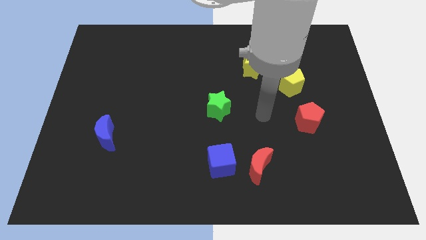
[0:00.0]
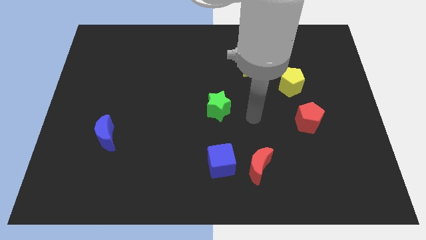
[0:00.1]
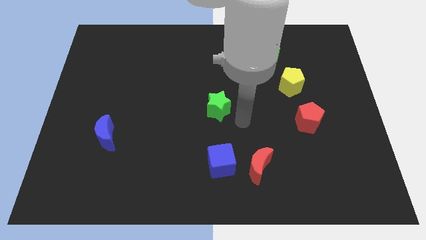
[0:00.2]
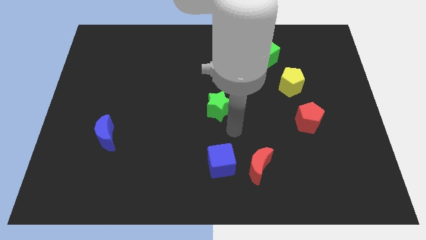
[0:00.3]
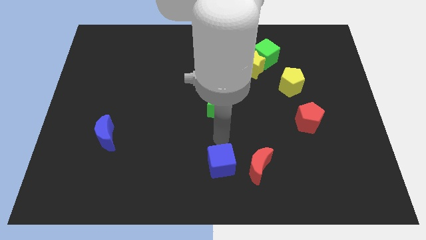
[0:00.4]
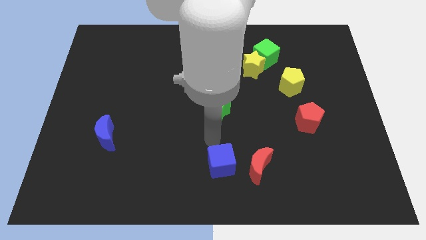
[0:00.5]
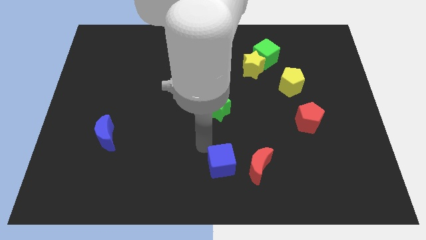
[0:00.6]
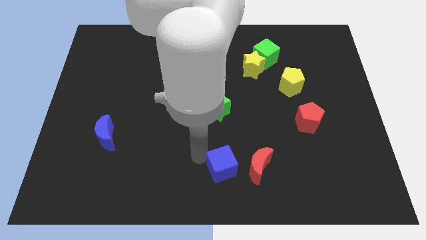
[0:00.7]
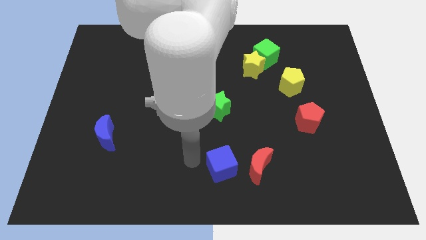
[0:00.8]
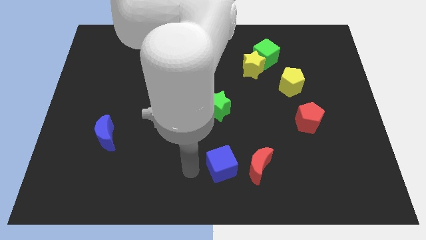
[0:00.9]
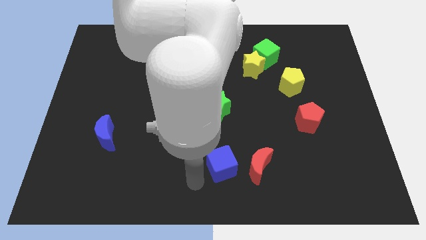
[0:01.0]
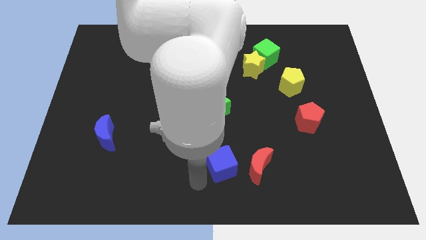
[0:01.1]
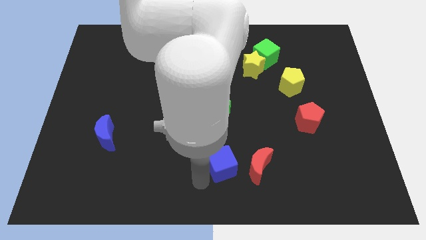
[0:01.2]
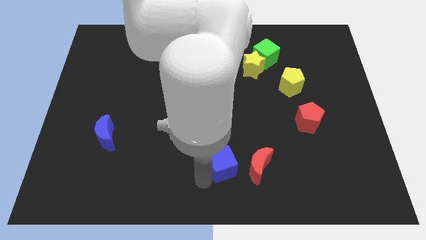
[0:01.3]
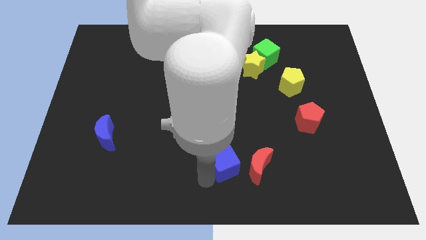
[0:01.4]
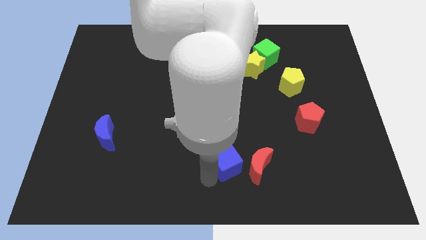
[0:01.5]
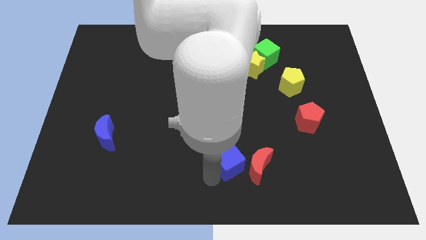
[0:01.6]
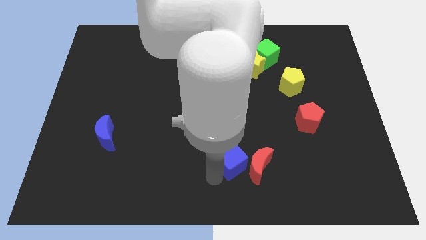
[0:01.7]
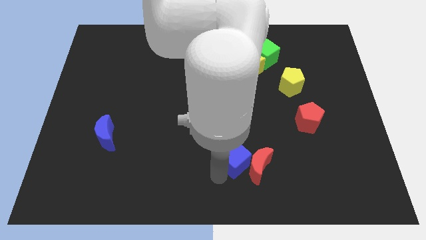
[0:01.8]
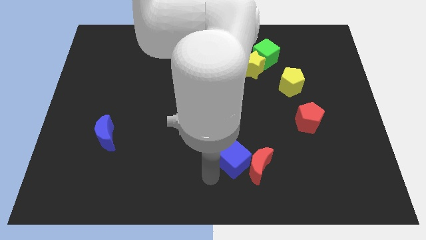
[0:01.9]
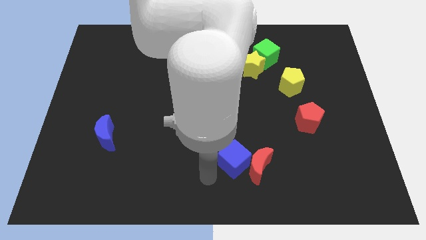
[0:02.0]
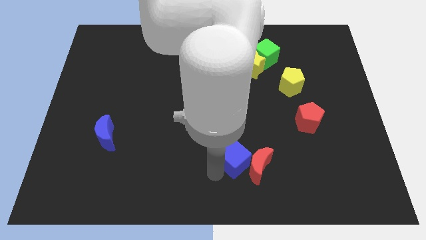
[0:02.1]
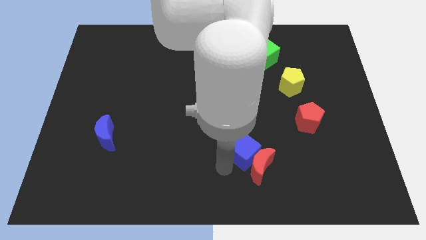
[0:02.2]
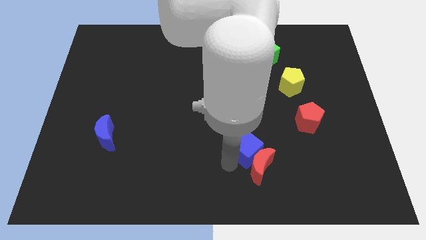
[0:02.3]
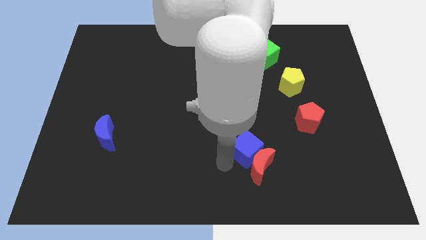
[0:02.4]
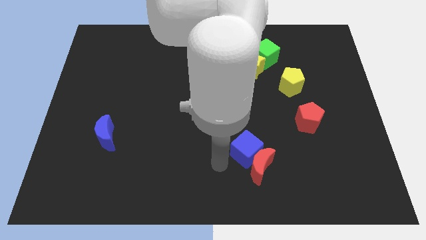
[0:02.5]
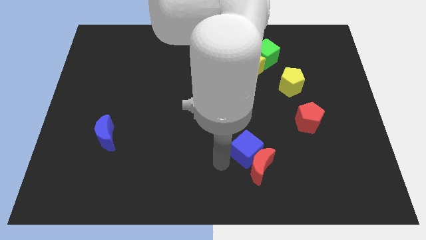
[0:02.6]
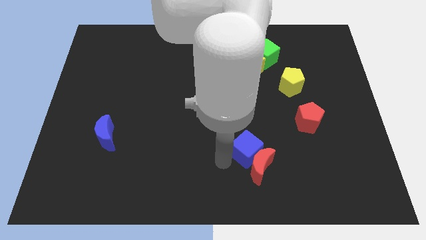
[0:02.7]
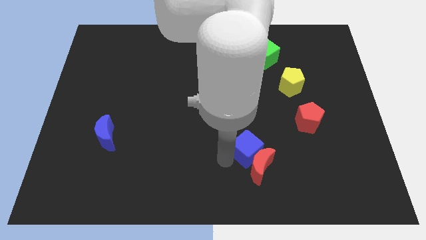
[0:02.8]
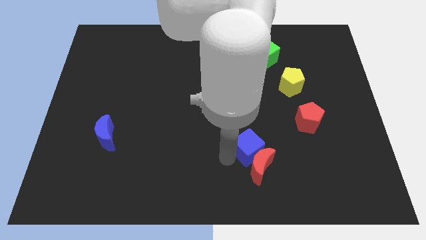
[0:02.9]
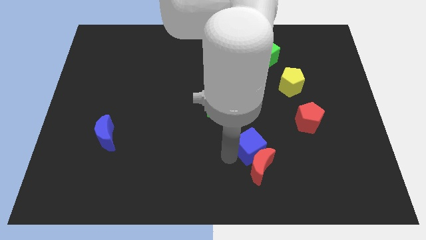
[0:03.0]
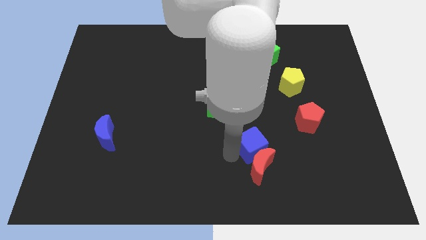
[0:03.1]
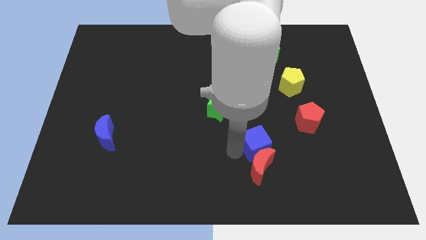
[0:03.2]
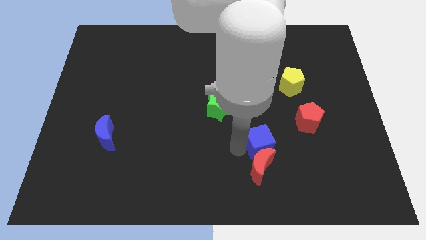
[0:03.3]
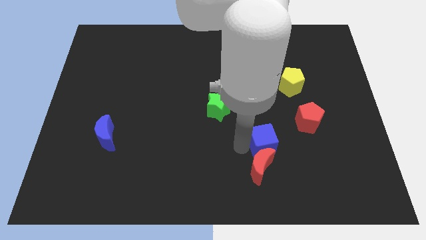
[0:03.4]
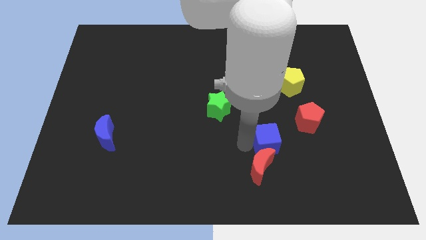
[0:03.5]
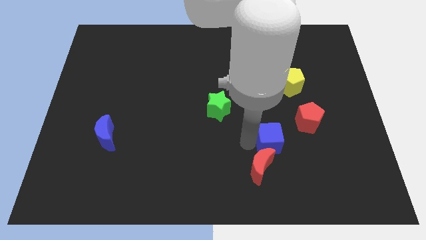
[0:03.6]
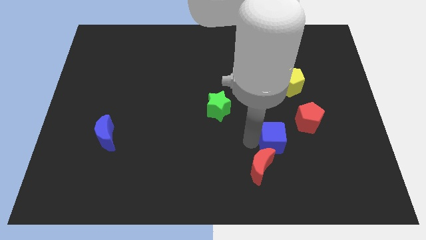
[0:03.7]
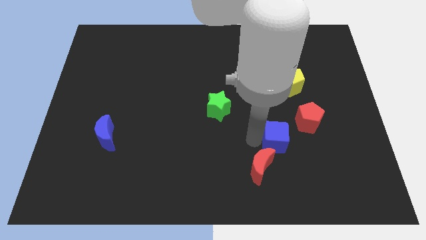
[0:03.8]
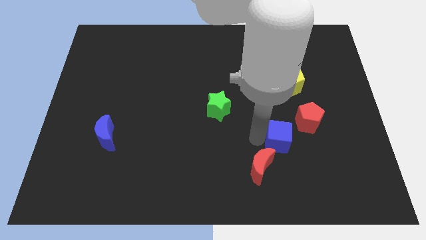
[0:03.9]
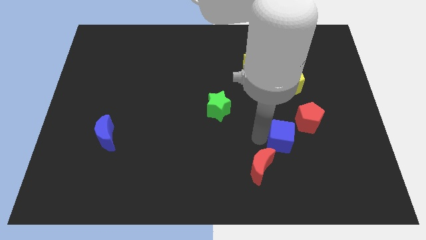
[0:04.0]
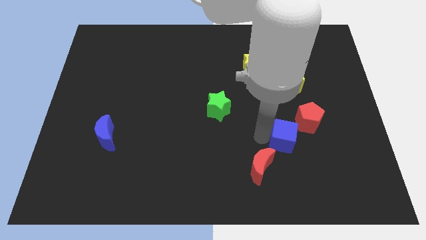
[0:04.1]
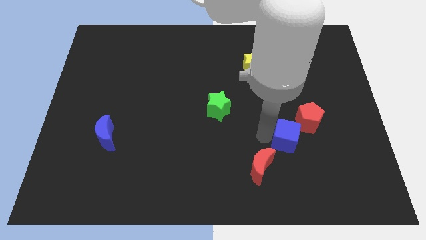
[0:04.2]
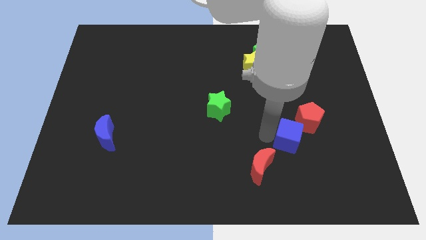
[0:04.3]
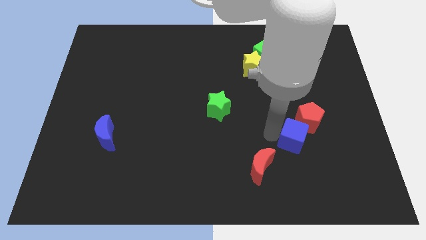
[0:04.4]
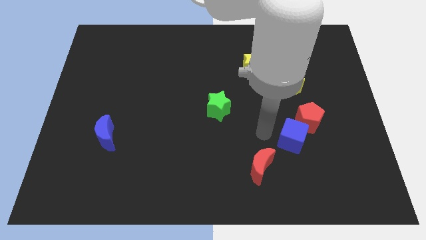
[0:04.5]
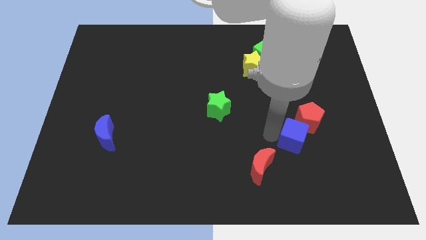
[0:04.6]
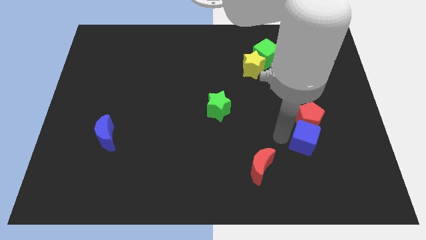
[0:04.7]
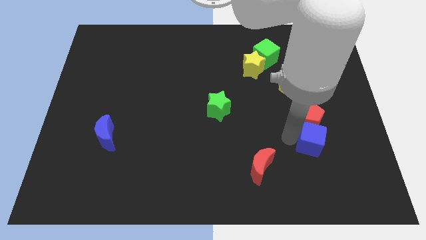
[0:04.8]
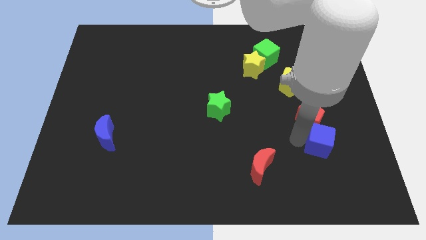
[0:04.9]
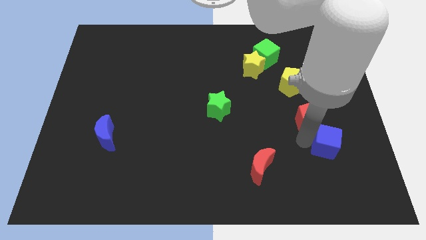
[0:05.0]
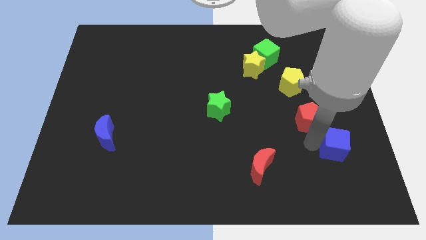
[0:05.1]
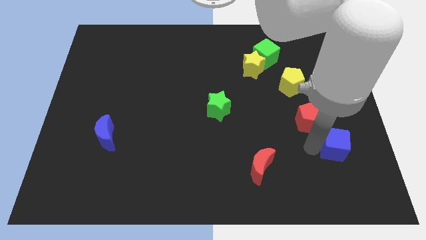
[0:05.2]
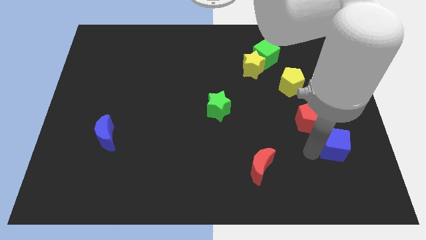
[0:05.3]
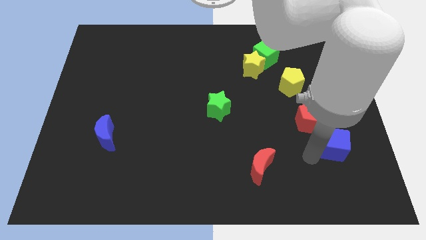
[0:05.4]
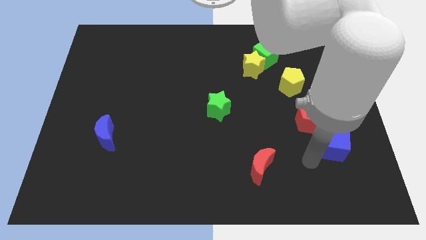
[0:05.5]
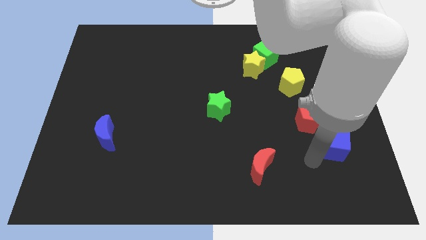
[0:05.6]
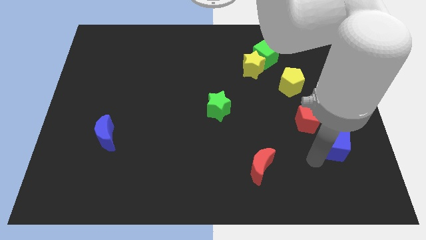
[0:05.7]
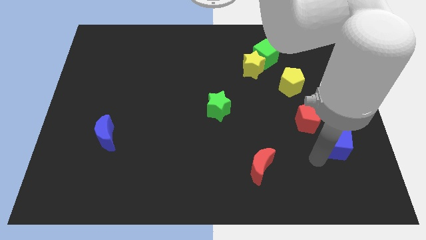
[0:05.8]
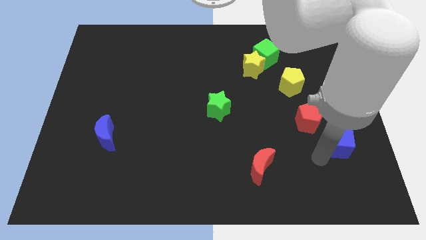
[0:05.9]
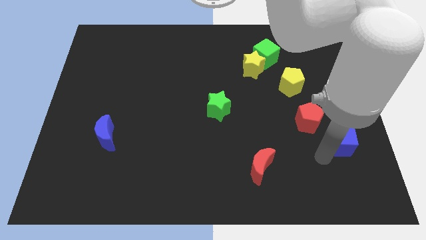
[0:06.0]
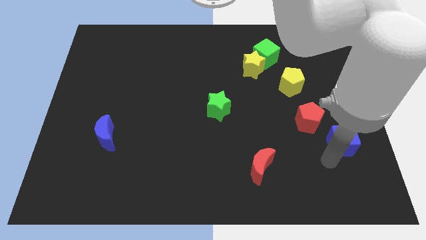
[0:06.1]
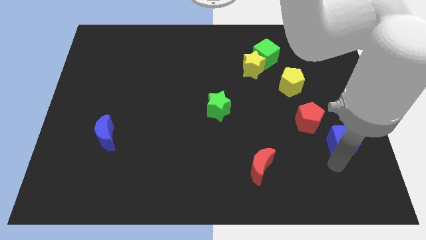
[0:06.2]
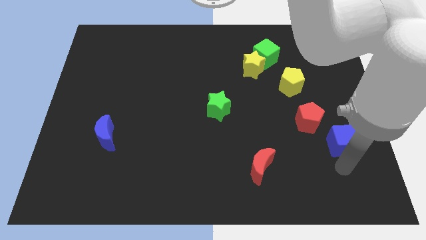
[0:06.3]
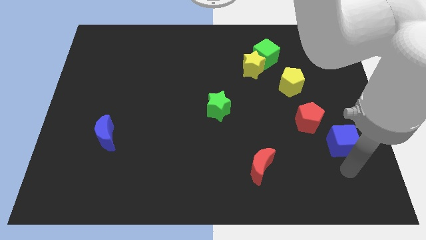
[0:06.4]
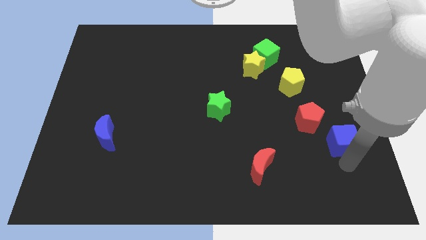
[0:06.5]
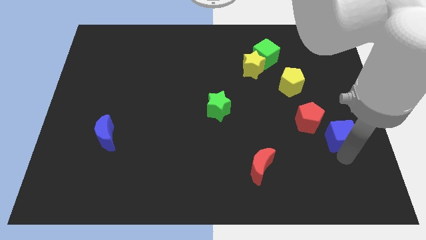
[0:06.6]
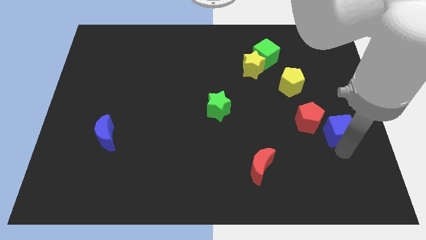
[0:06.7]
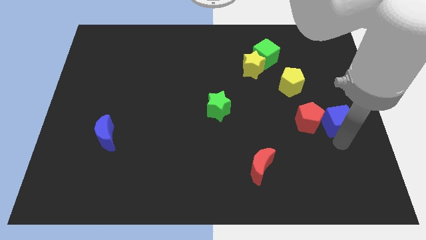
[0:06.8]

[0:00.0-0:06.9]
move the blue cube to the top right of the red pentagon

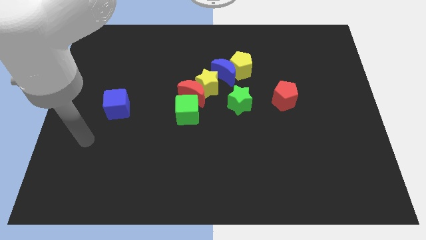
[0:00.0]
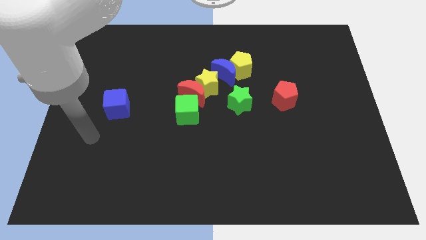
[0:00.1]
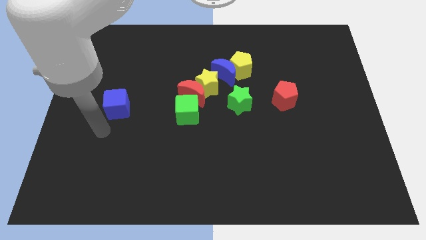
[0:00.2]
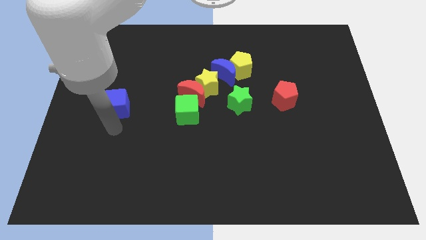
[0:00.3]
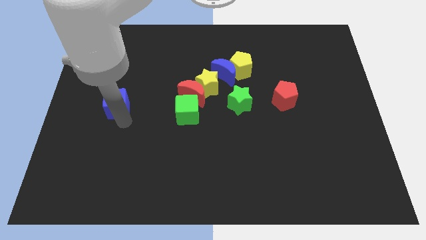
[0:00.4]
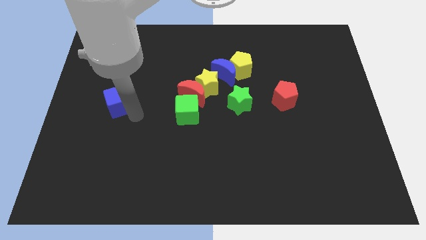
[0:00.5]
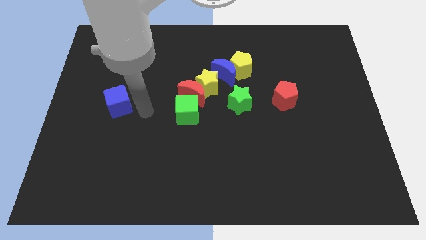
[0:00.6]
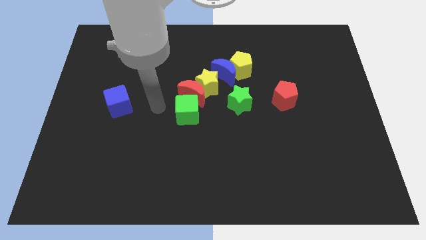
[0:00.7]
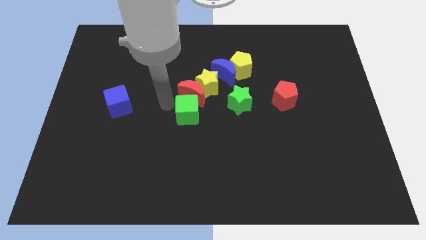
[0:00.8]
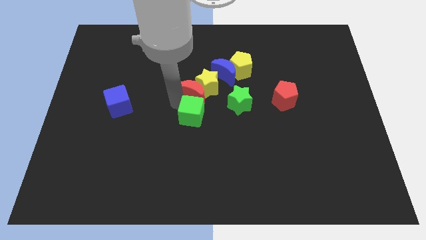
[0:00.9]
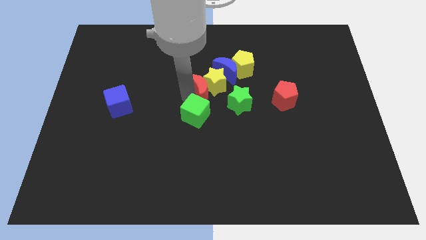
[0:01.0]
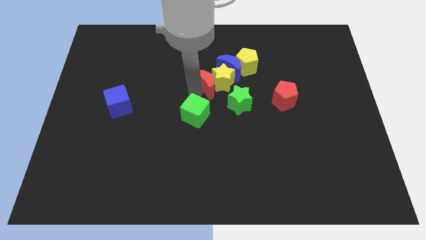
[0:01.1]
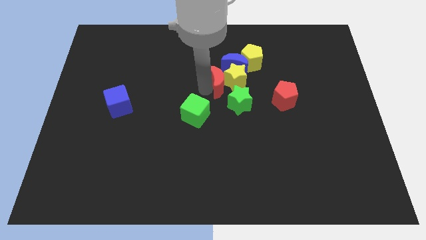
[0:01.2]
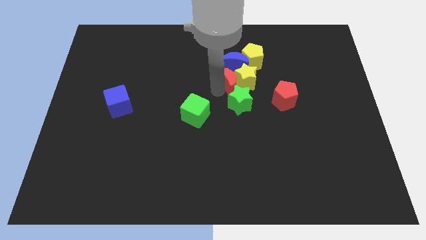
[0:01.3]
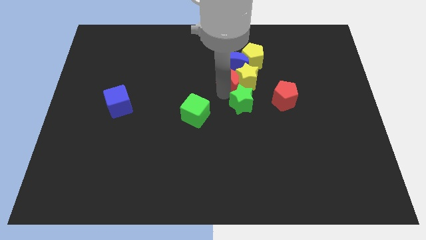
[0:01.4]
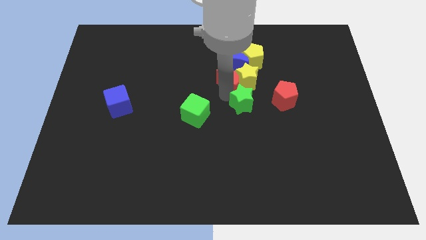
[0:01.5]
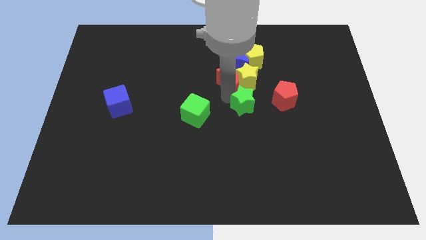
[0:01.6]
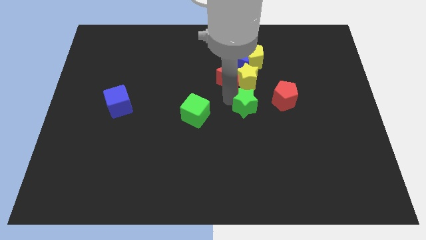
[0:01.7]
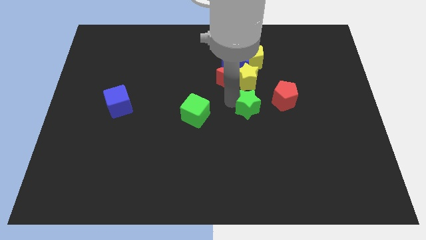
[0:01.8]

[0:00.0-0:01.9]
put the green star diagonally down and to the left of the red pentagon
